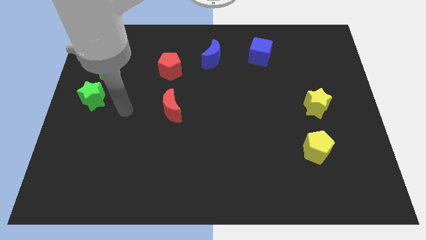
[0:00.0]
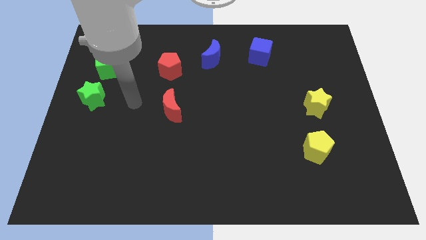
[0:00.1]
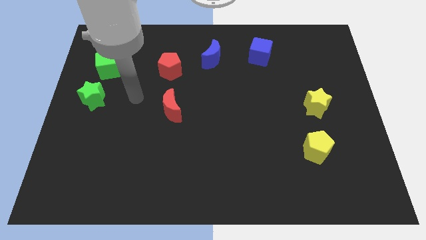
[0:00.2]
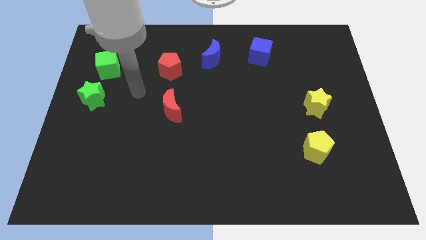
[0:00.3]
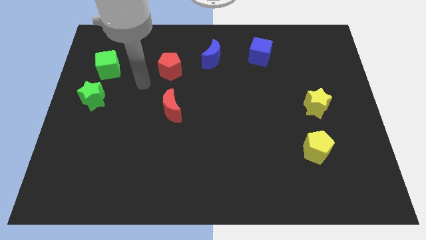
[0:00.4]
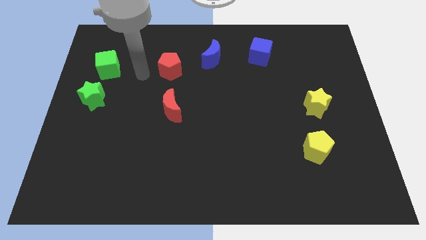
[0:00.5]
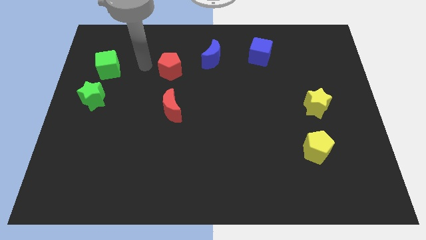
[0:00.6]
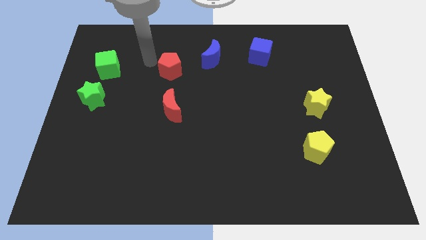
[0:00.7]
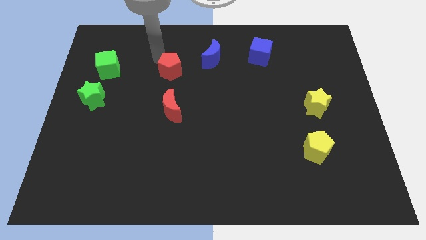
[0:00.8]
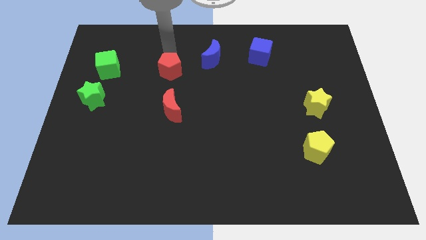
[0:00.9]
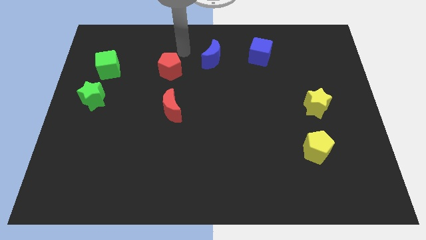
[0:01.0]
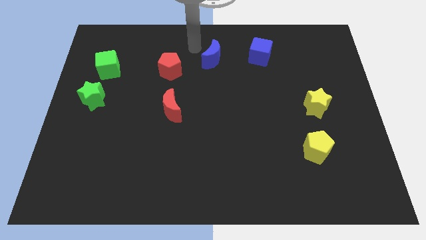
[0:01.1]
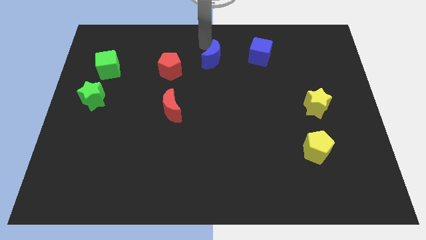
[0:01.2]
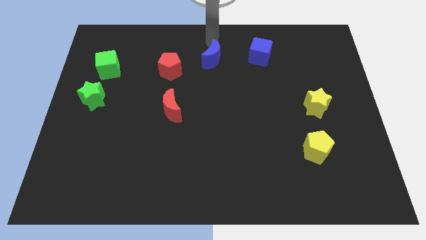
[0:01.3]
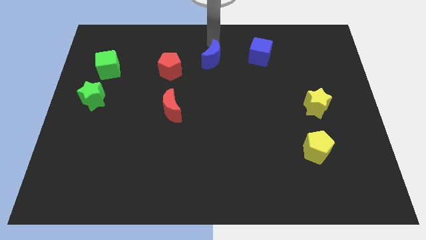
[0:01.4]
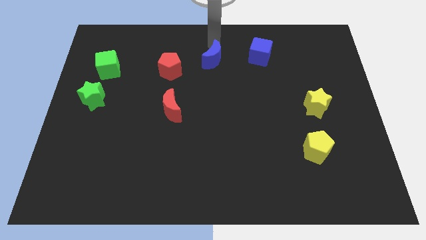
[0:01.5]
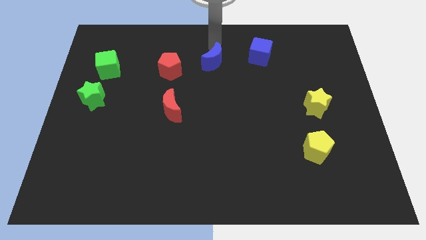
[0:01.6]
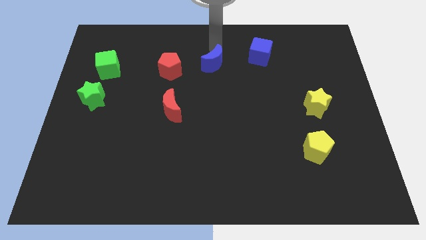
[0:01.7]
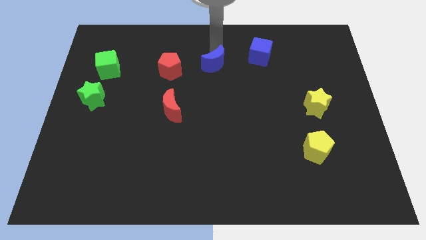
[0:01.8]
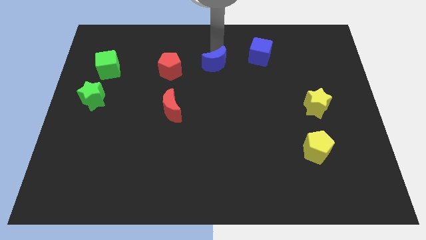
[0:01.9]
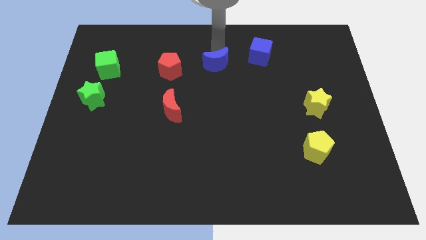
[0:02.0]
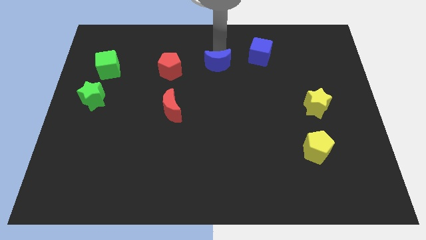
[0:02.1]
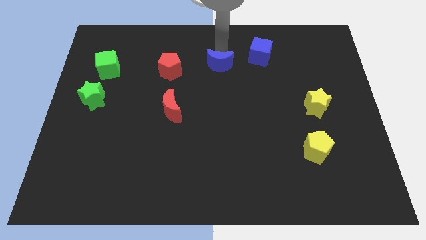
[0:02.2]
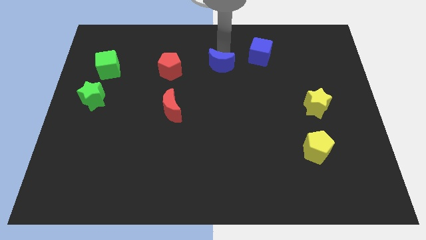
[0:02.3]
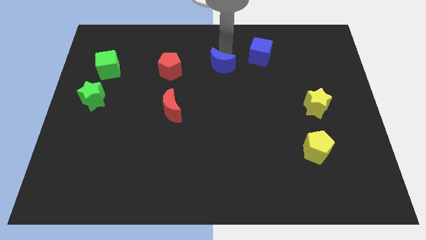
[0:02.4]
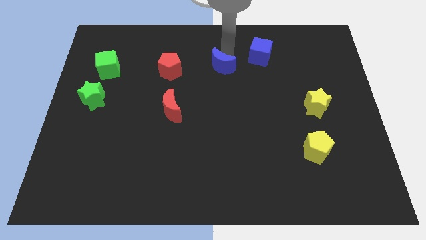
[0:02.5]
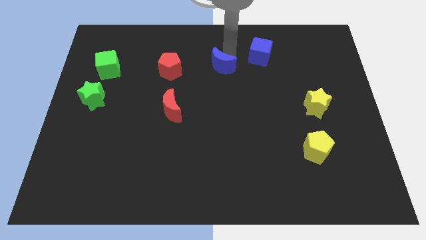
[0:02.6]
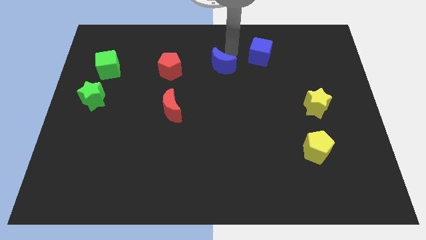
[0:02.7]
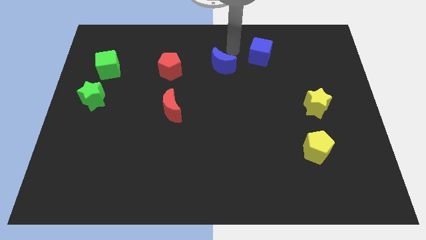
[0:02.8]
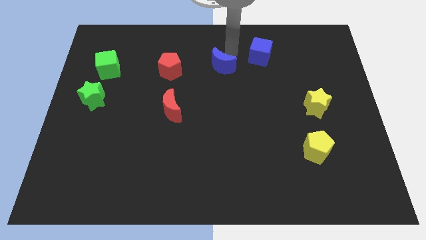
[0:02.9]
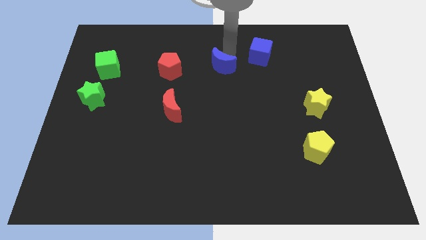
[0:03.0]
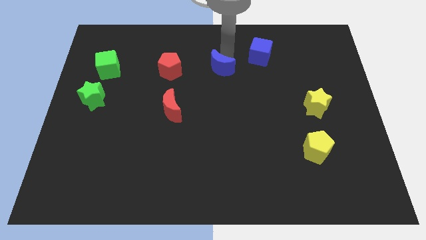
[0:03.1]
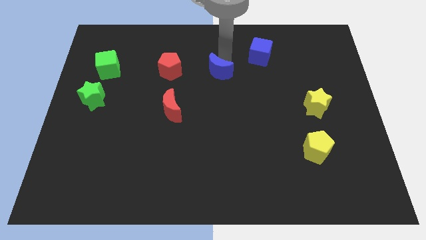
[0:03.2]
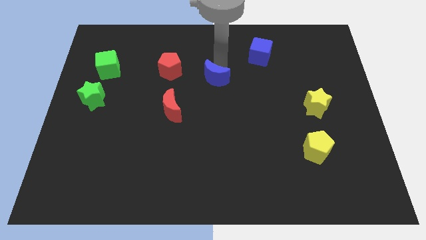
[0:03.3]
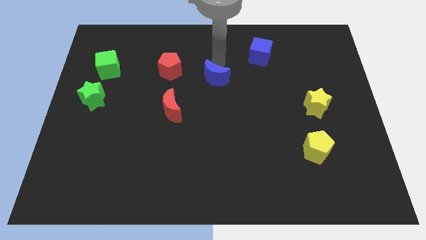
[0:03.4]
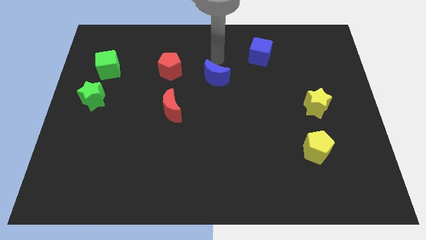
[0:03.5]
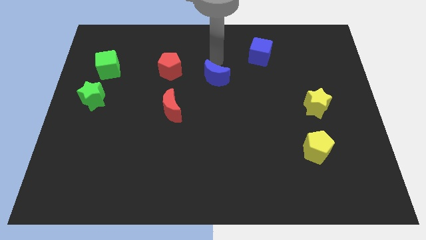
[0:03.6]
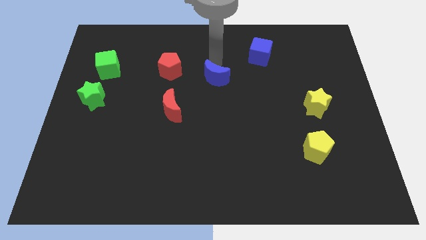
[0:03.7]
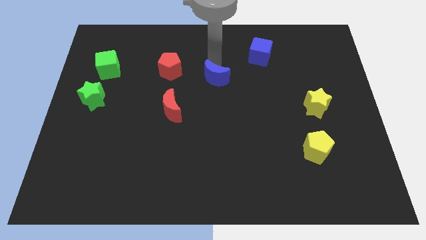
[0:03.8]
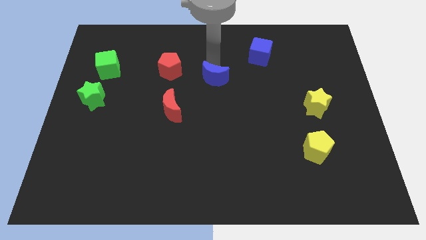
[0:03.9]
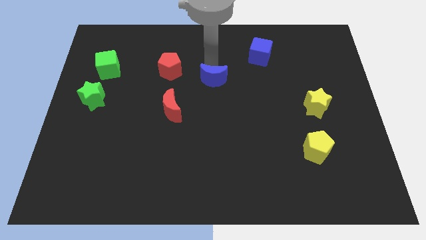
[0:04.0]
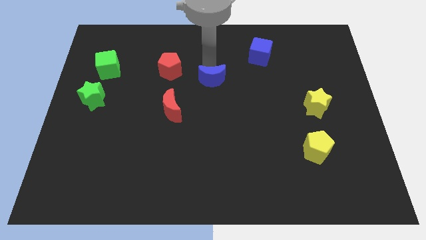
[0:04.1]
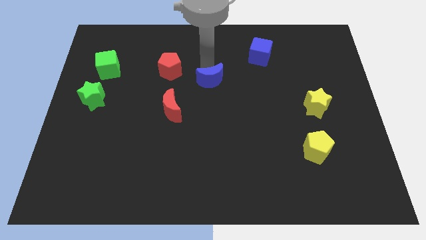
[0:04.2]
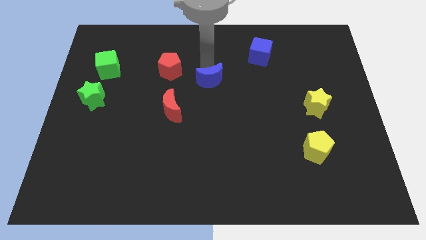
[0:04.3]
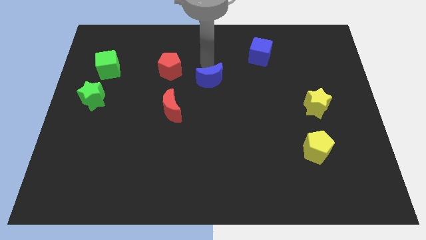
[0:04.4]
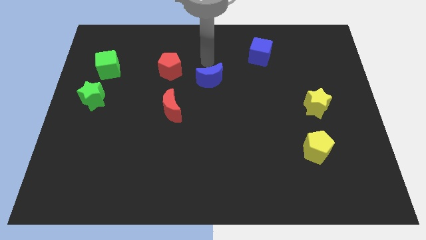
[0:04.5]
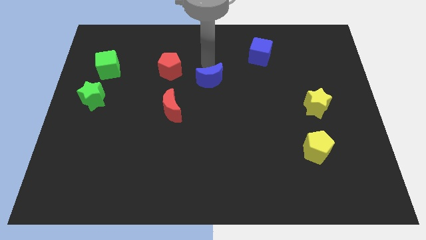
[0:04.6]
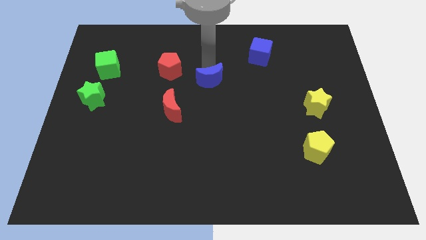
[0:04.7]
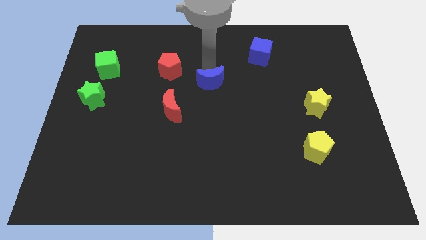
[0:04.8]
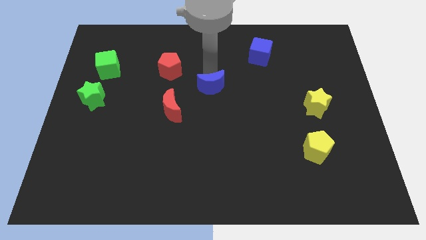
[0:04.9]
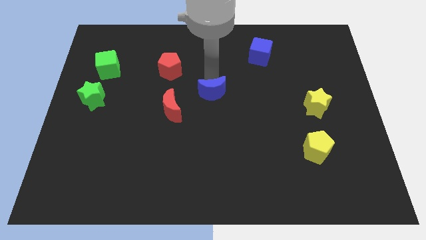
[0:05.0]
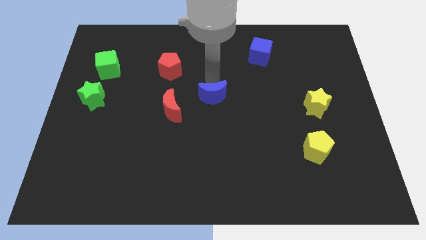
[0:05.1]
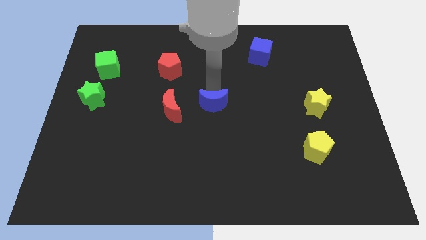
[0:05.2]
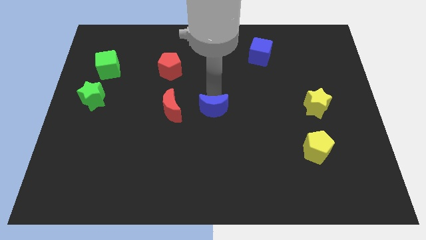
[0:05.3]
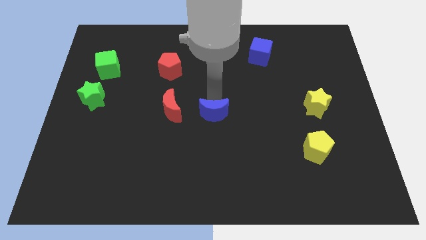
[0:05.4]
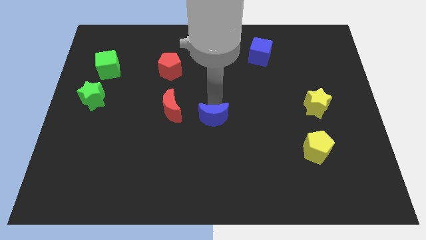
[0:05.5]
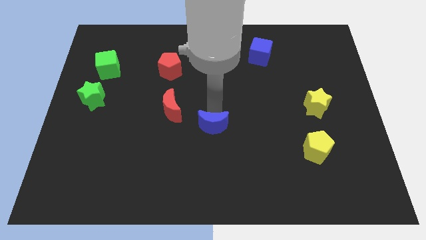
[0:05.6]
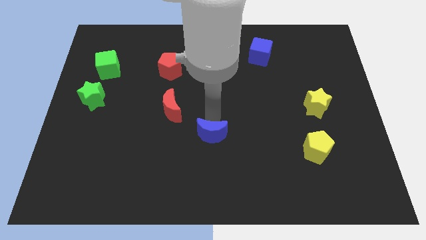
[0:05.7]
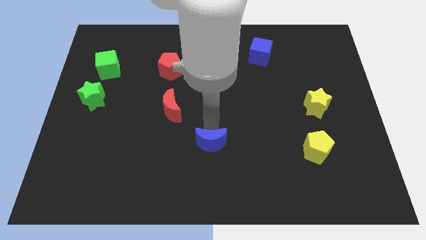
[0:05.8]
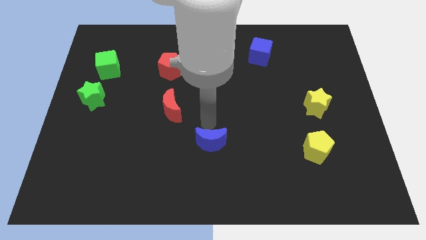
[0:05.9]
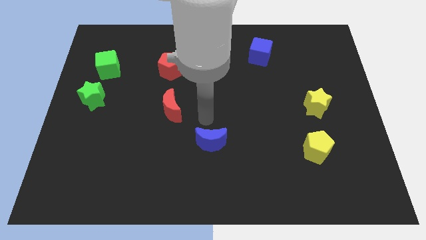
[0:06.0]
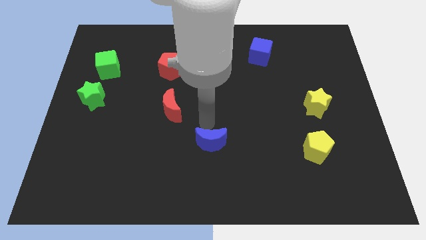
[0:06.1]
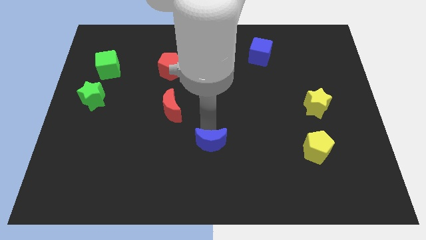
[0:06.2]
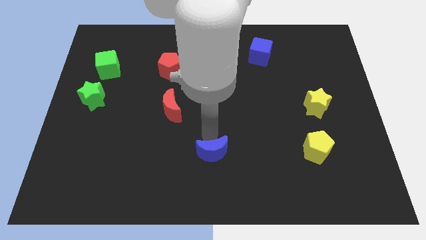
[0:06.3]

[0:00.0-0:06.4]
slide the blue moon to the bottom side
